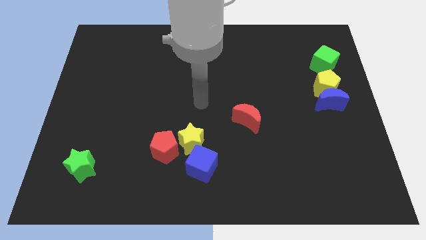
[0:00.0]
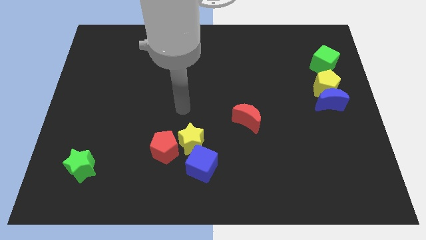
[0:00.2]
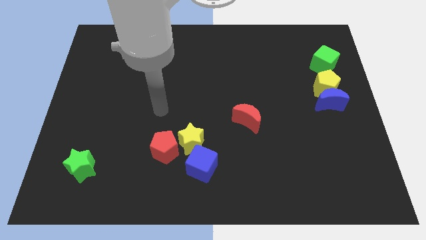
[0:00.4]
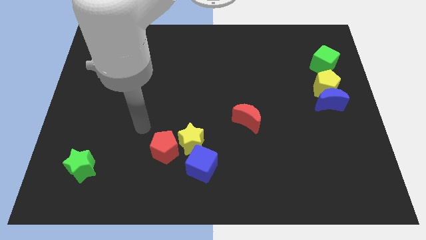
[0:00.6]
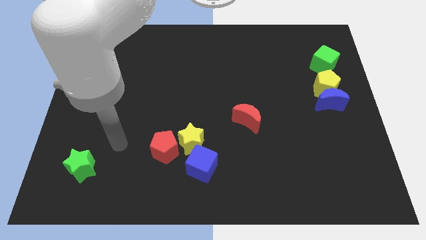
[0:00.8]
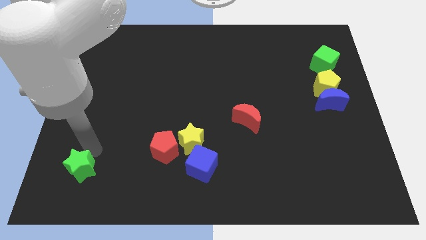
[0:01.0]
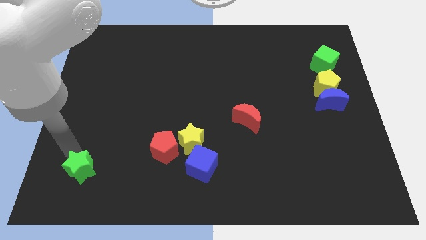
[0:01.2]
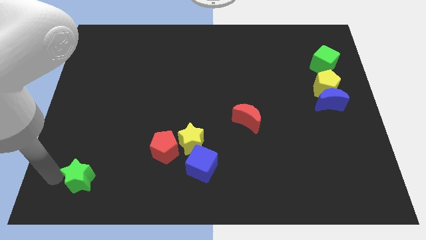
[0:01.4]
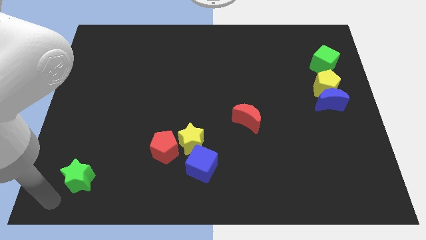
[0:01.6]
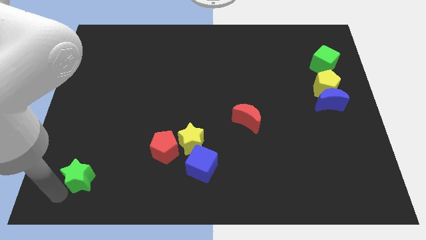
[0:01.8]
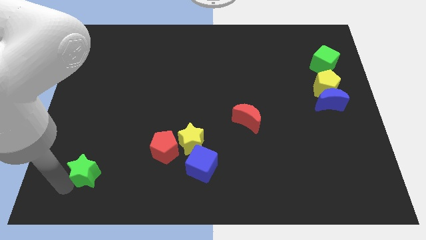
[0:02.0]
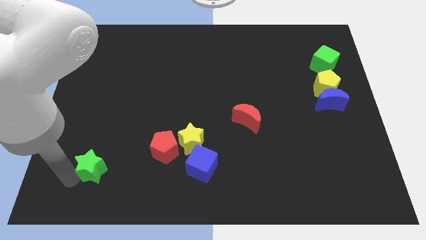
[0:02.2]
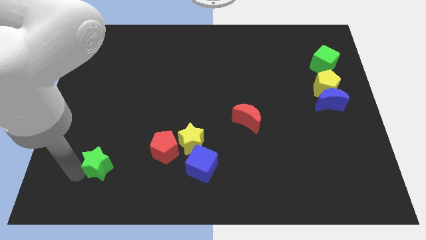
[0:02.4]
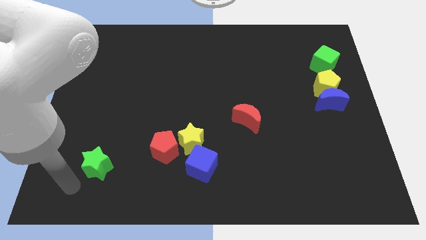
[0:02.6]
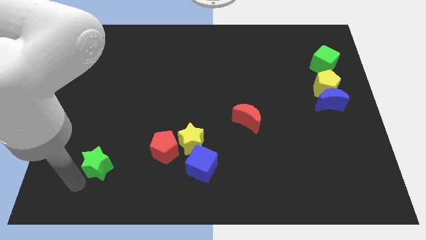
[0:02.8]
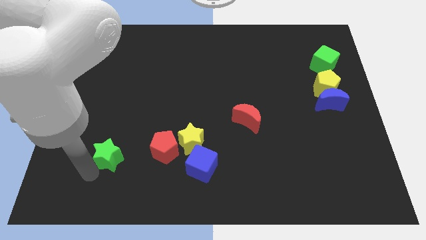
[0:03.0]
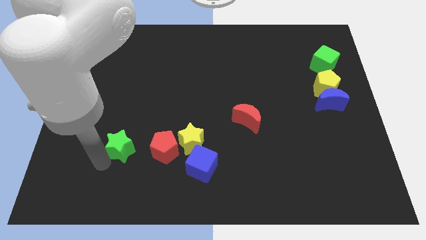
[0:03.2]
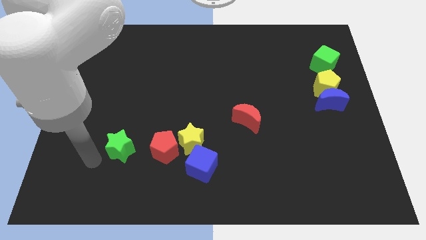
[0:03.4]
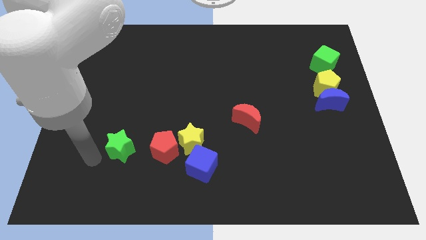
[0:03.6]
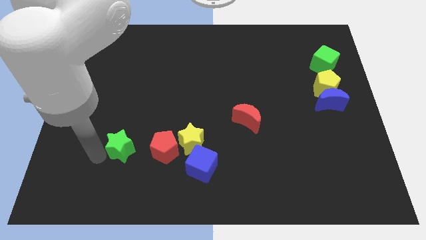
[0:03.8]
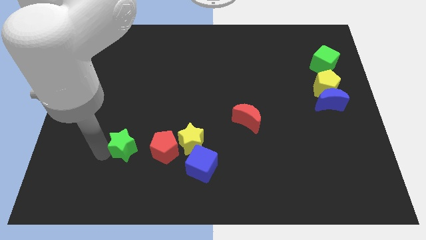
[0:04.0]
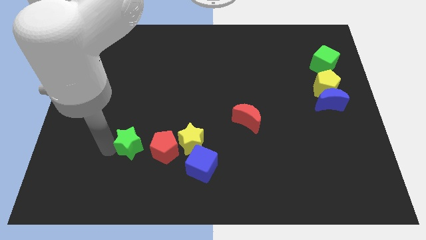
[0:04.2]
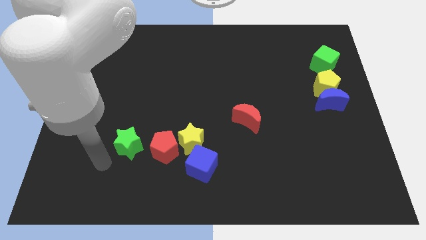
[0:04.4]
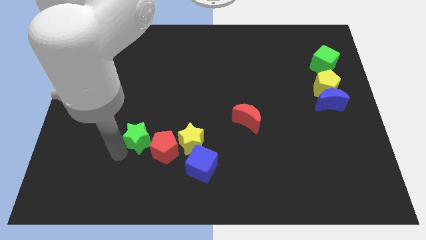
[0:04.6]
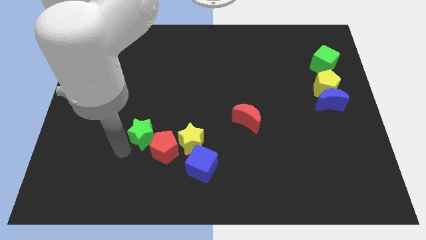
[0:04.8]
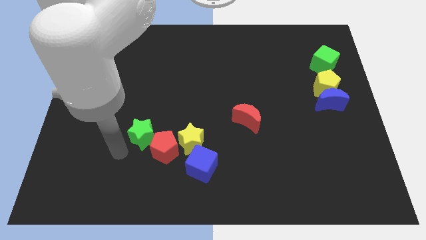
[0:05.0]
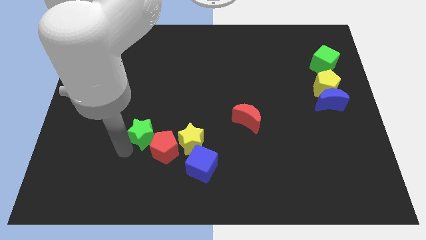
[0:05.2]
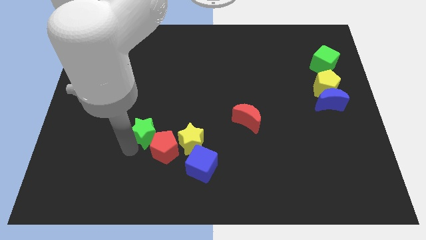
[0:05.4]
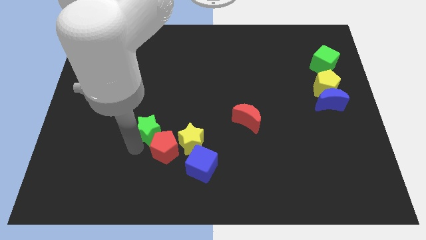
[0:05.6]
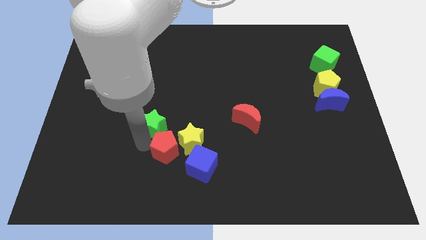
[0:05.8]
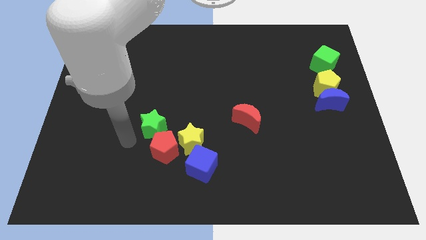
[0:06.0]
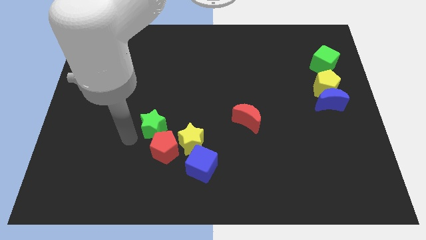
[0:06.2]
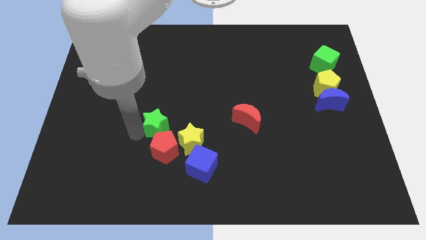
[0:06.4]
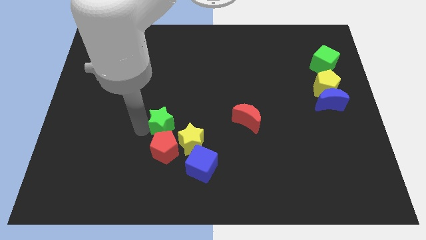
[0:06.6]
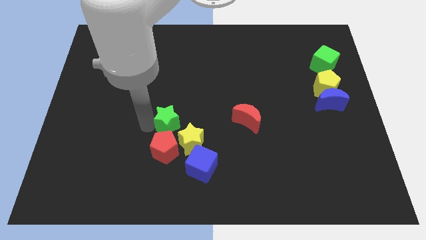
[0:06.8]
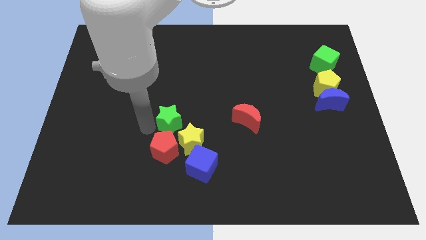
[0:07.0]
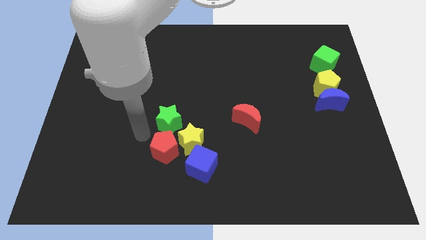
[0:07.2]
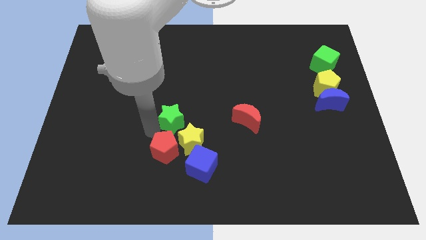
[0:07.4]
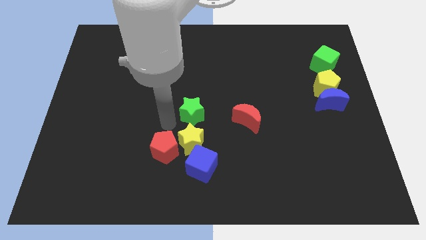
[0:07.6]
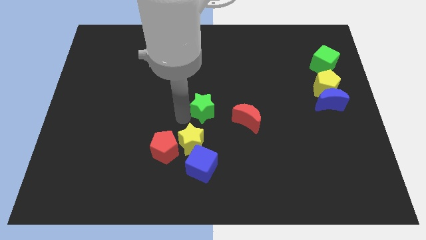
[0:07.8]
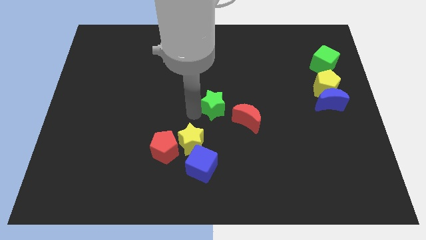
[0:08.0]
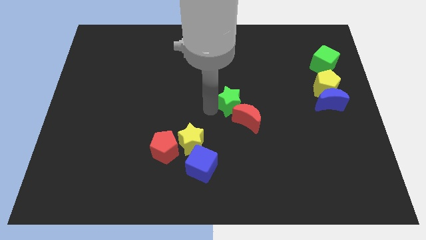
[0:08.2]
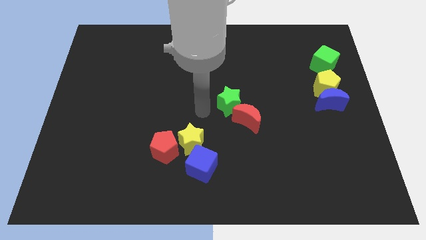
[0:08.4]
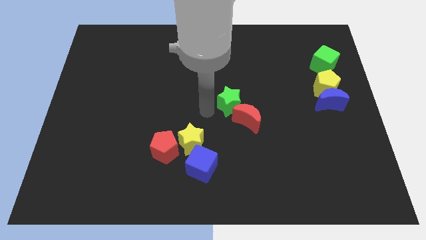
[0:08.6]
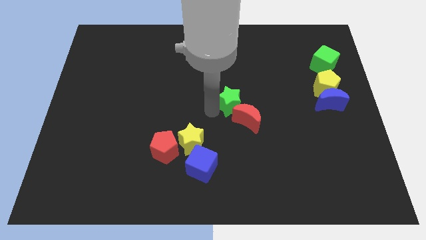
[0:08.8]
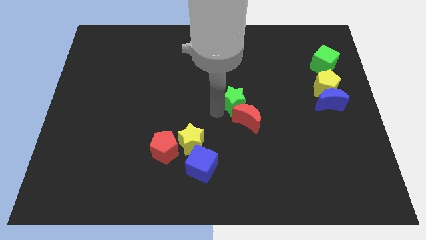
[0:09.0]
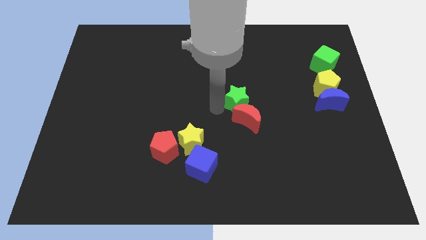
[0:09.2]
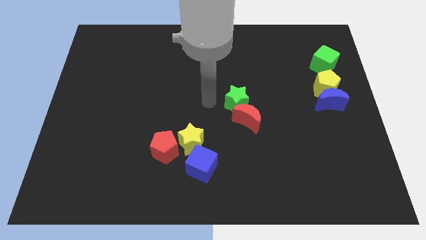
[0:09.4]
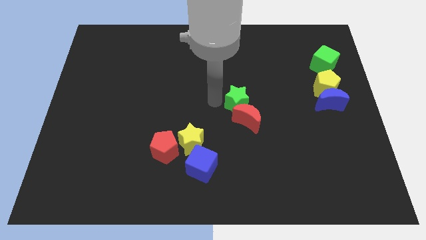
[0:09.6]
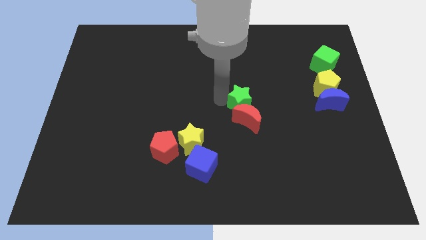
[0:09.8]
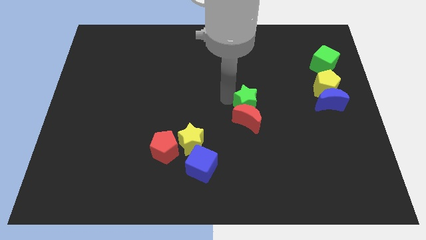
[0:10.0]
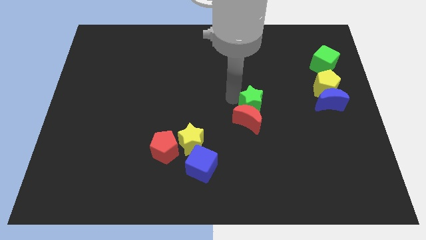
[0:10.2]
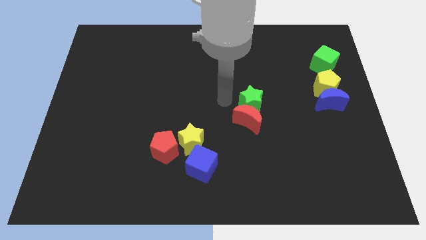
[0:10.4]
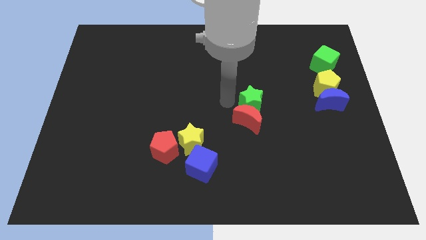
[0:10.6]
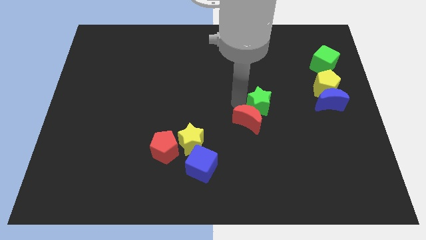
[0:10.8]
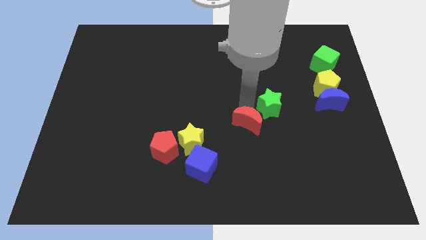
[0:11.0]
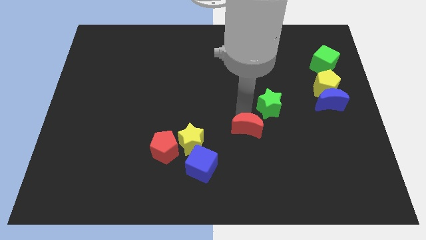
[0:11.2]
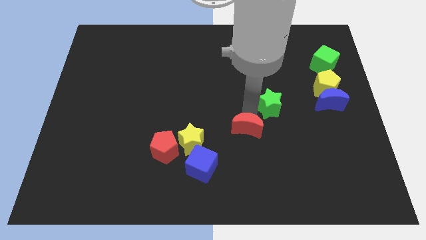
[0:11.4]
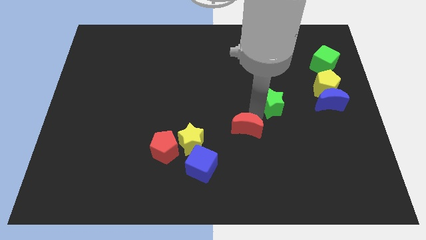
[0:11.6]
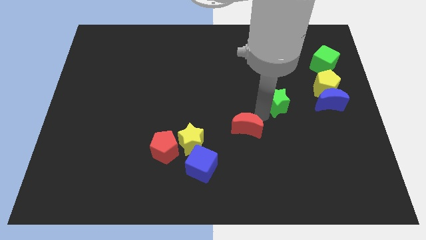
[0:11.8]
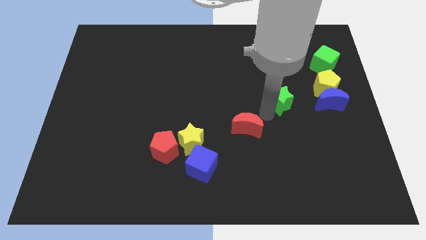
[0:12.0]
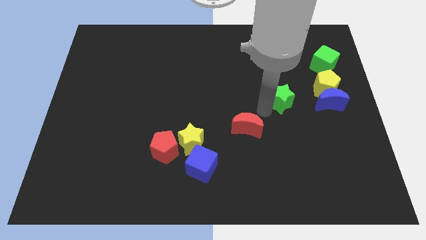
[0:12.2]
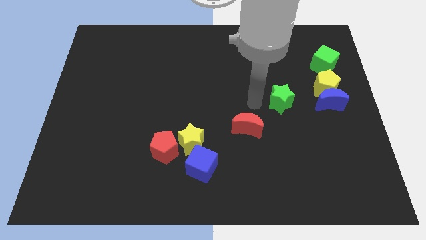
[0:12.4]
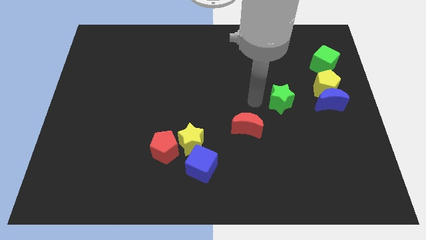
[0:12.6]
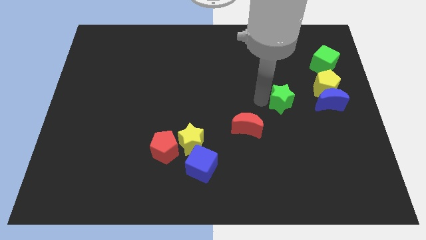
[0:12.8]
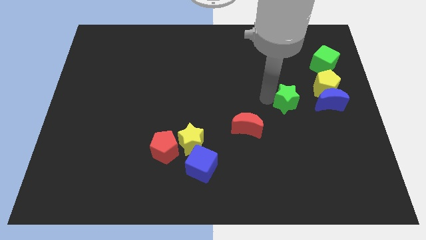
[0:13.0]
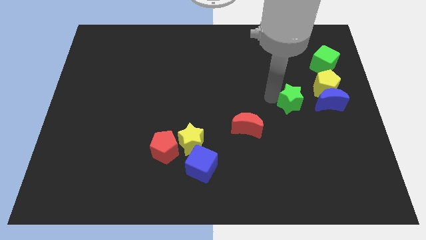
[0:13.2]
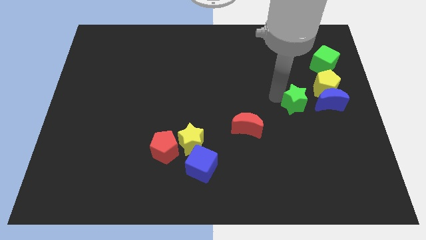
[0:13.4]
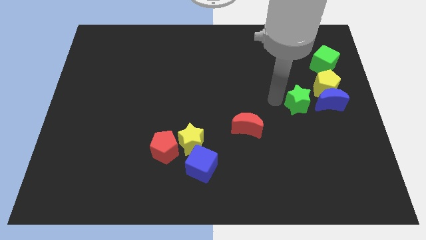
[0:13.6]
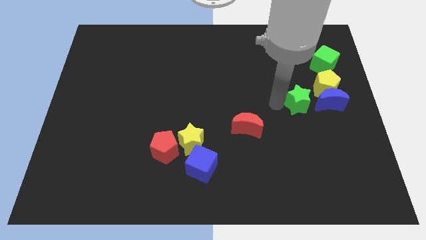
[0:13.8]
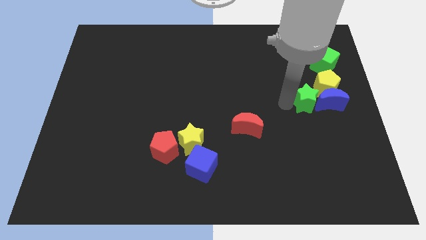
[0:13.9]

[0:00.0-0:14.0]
move the green star to the blue moon

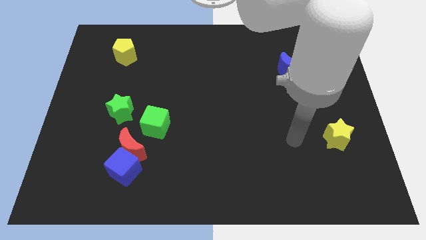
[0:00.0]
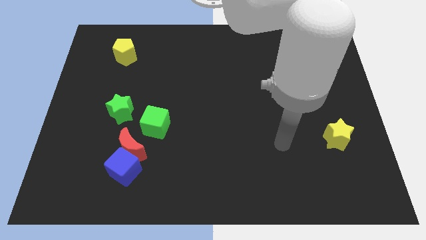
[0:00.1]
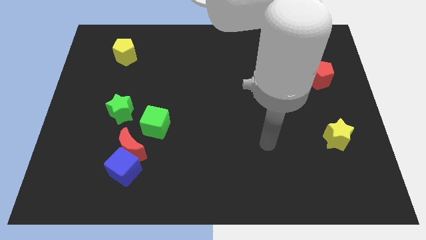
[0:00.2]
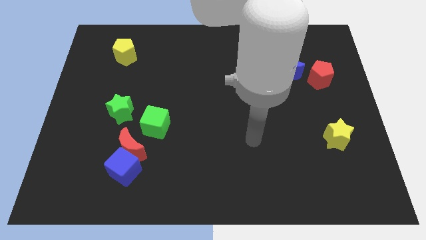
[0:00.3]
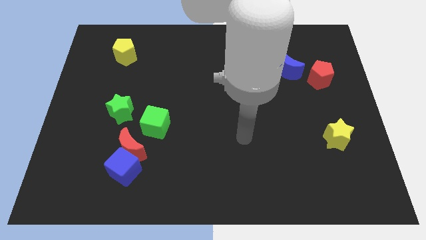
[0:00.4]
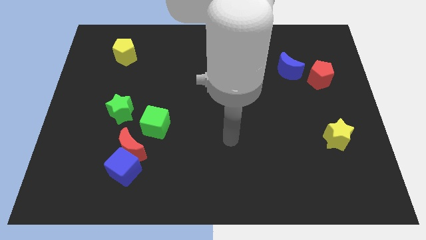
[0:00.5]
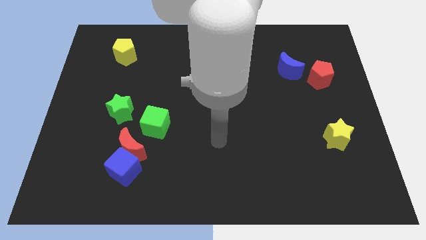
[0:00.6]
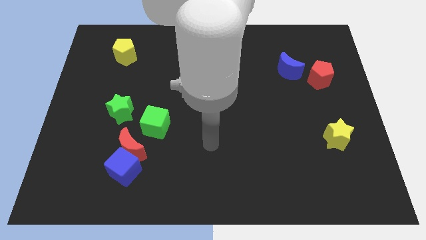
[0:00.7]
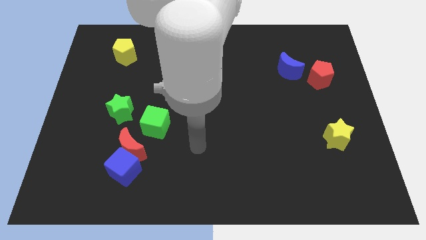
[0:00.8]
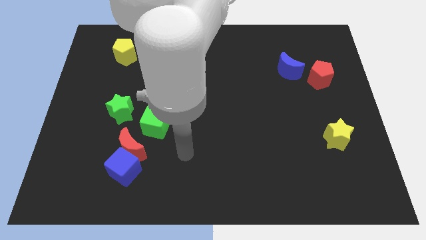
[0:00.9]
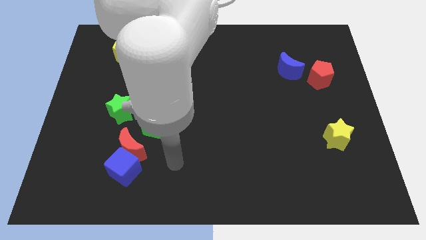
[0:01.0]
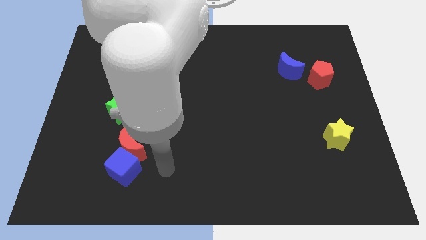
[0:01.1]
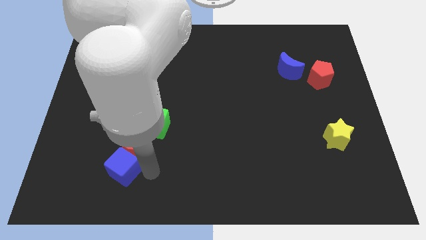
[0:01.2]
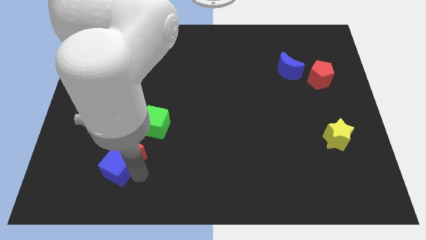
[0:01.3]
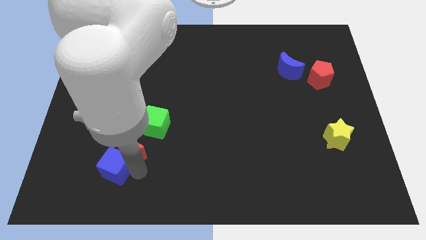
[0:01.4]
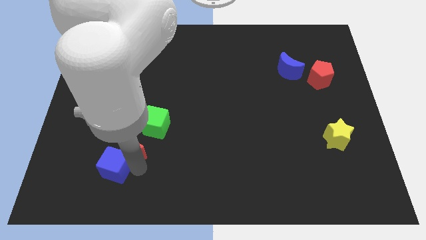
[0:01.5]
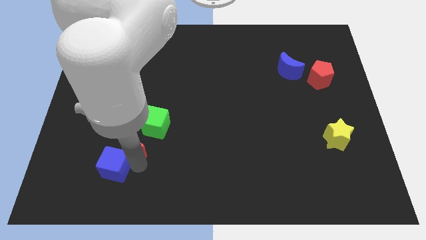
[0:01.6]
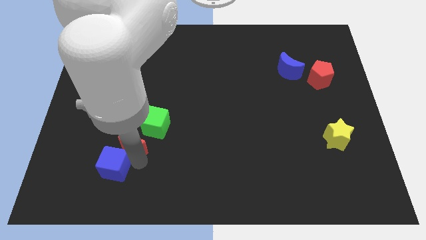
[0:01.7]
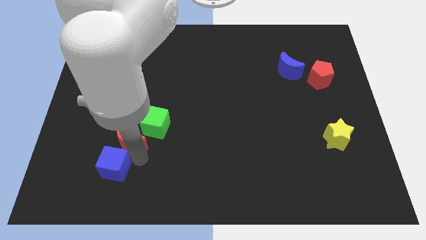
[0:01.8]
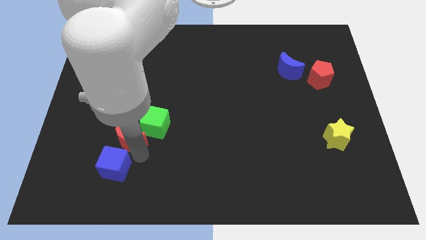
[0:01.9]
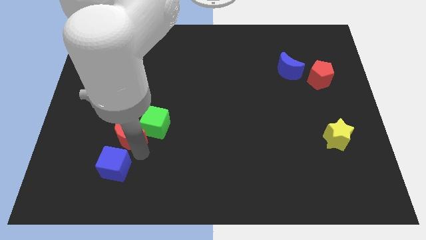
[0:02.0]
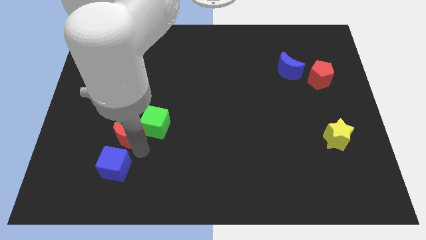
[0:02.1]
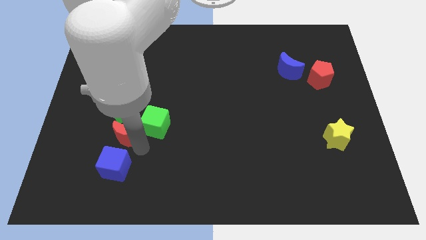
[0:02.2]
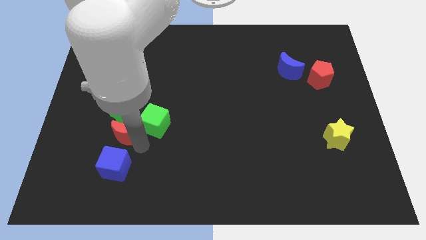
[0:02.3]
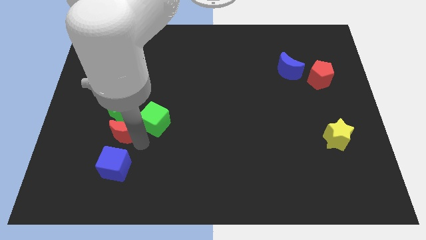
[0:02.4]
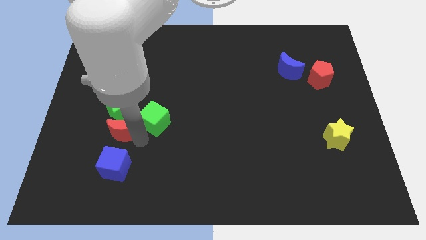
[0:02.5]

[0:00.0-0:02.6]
push the red moon next to the green star
